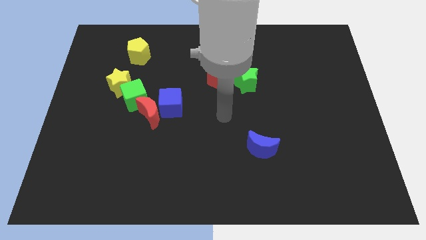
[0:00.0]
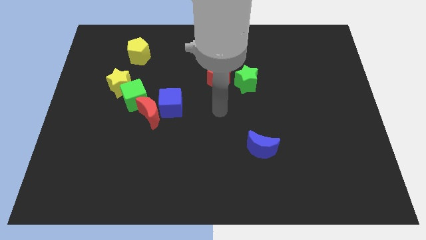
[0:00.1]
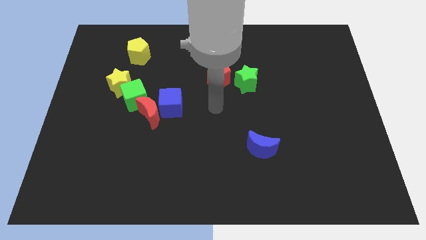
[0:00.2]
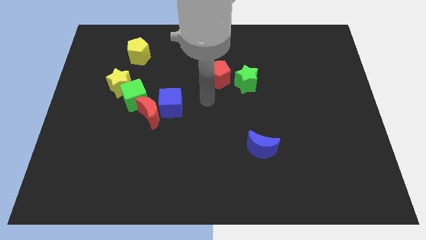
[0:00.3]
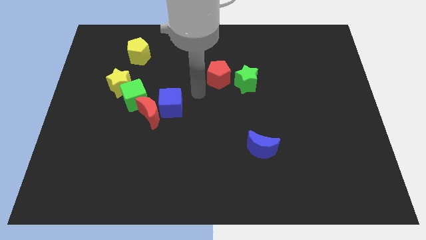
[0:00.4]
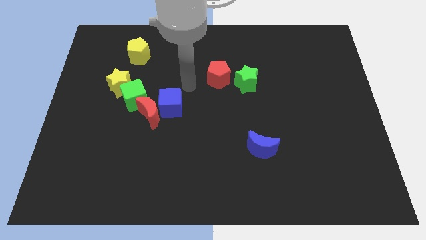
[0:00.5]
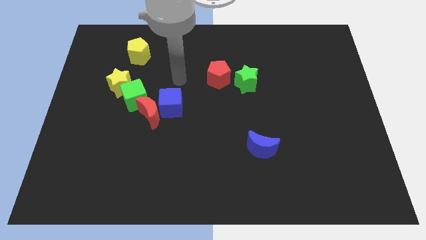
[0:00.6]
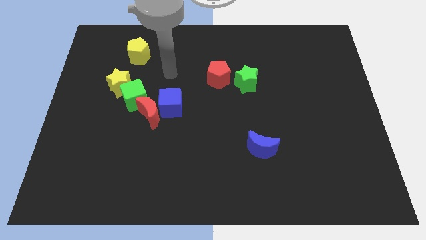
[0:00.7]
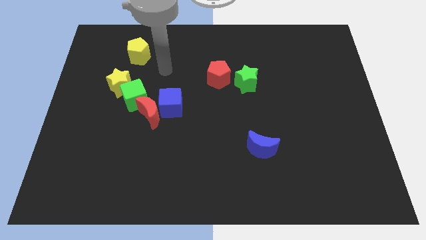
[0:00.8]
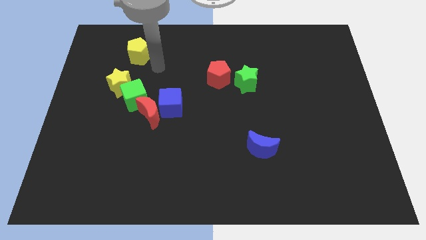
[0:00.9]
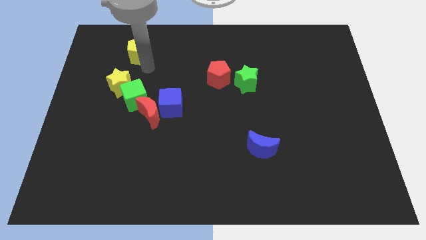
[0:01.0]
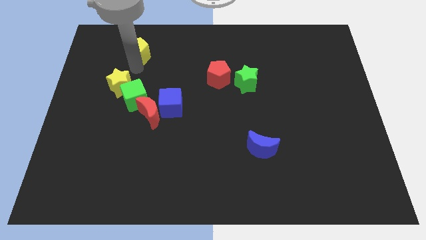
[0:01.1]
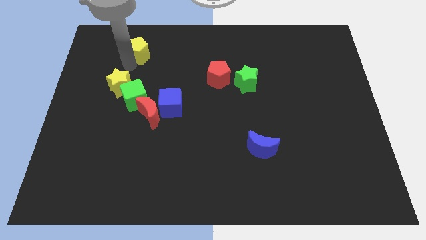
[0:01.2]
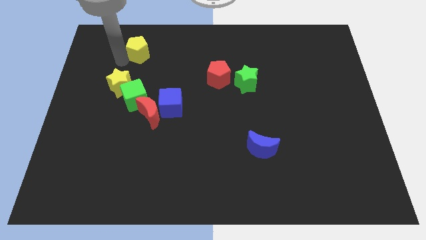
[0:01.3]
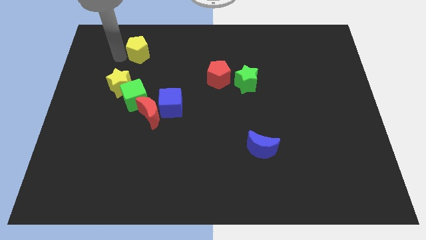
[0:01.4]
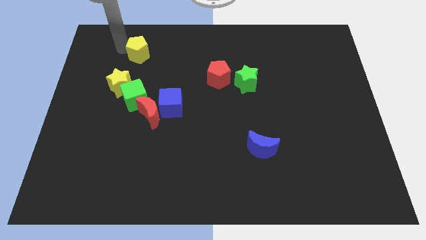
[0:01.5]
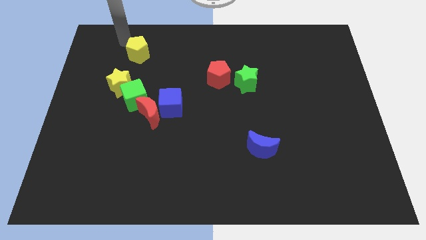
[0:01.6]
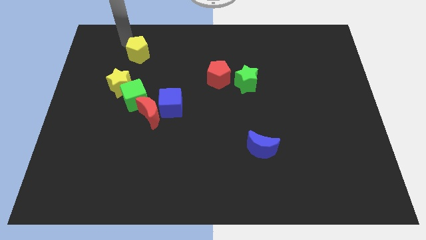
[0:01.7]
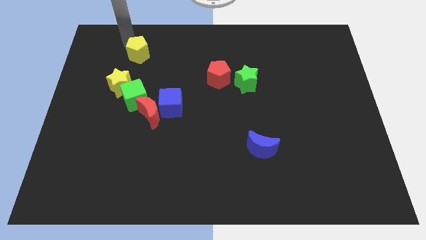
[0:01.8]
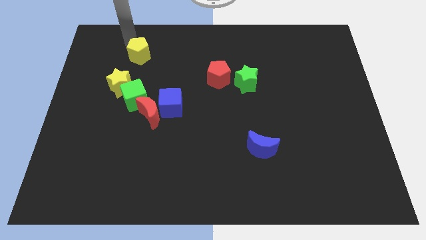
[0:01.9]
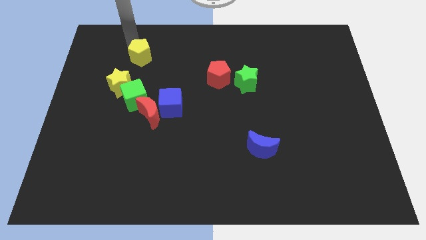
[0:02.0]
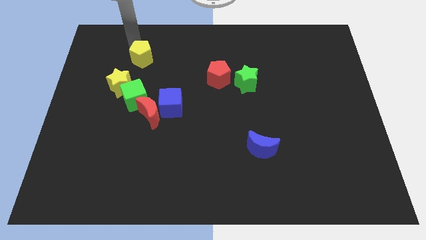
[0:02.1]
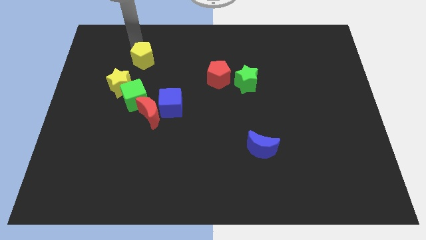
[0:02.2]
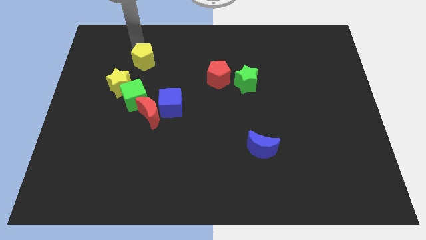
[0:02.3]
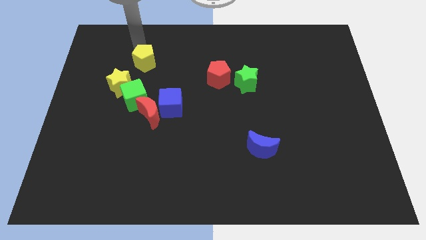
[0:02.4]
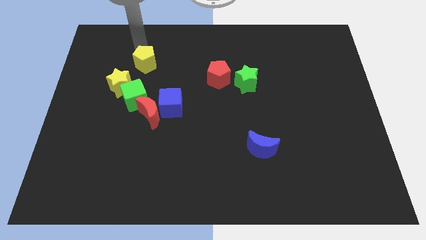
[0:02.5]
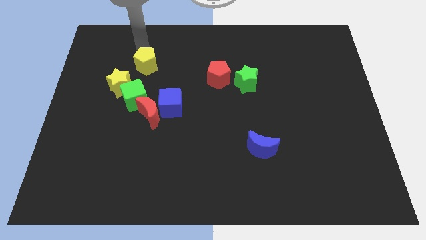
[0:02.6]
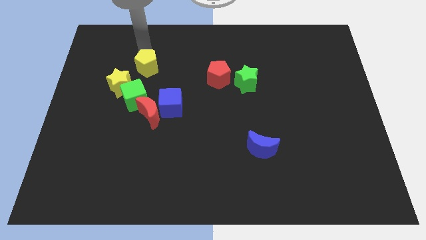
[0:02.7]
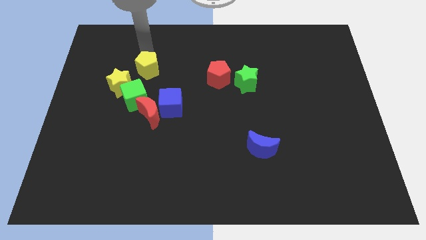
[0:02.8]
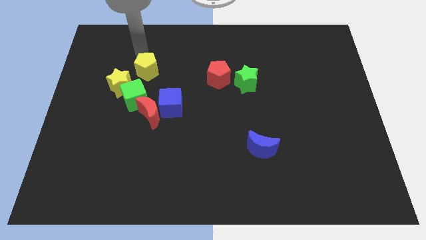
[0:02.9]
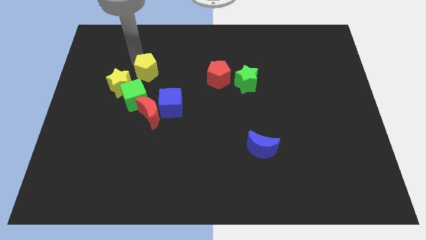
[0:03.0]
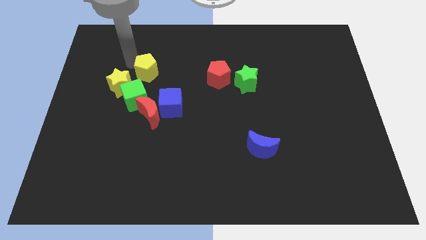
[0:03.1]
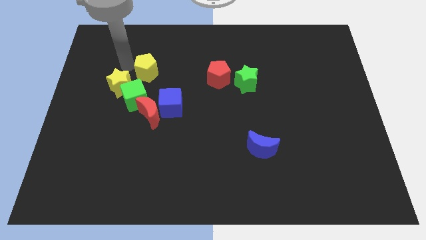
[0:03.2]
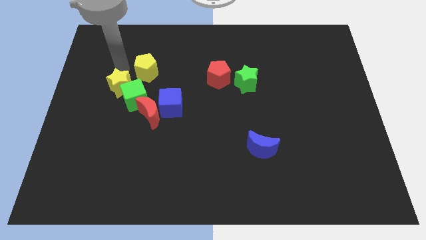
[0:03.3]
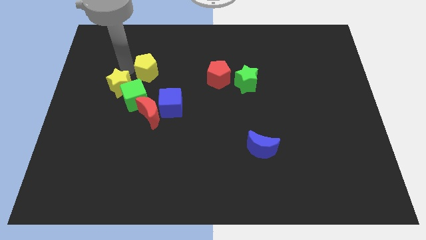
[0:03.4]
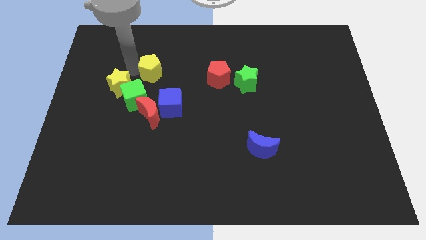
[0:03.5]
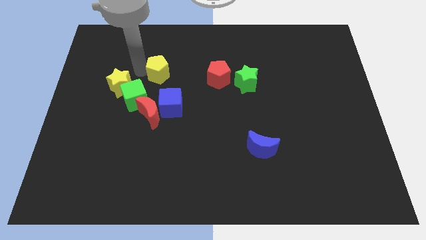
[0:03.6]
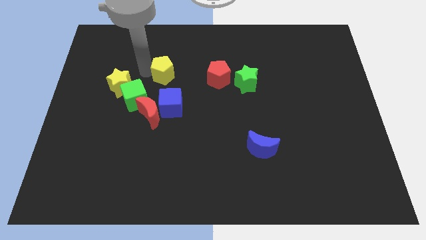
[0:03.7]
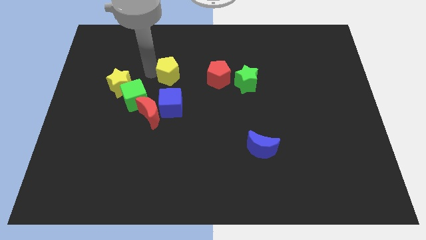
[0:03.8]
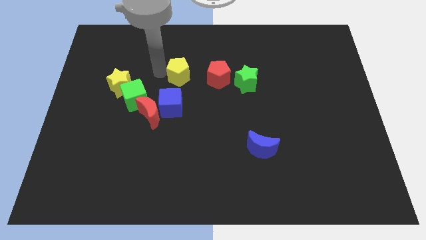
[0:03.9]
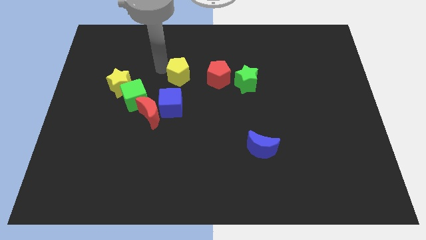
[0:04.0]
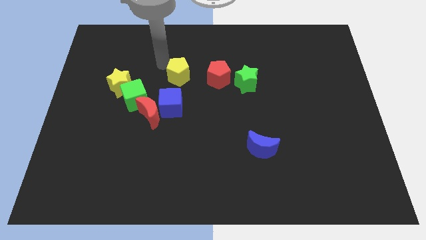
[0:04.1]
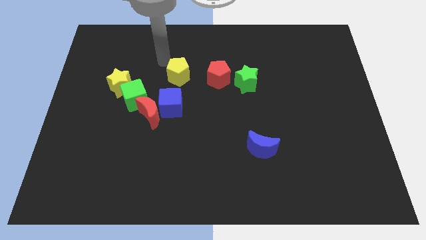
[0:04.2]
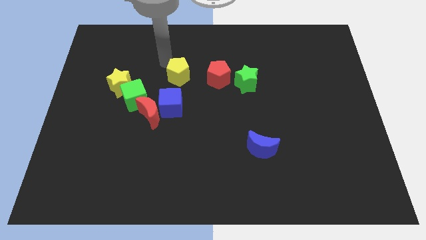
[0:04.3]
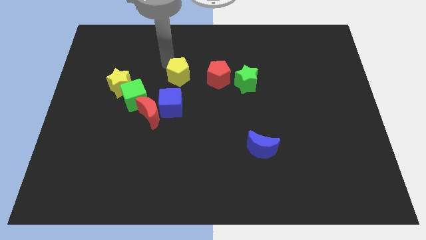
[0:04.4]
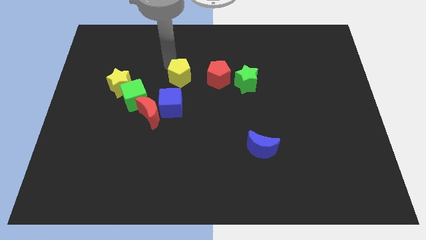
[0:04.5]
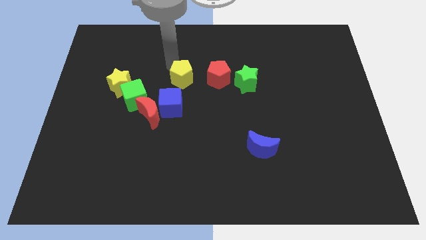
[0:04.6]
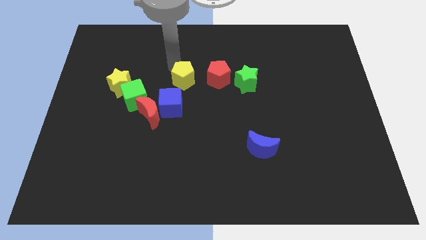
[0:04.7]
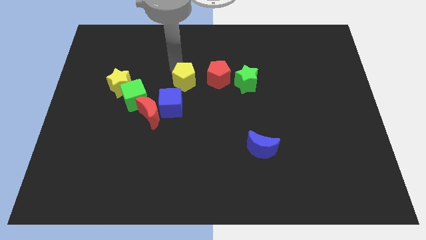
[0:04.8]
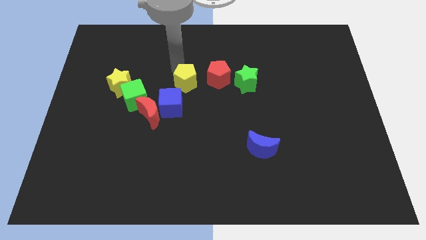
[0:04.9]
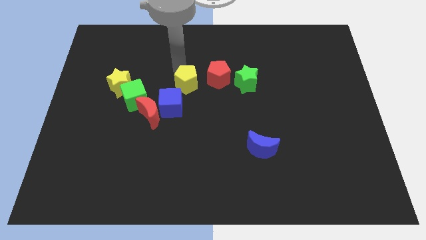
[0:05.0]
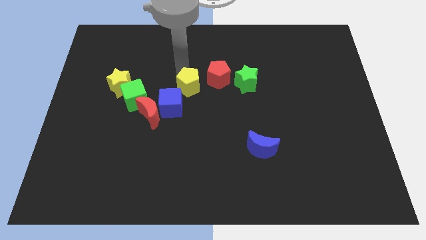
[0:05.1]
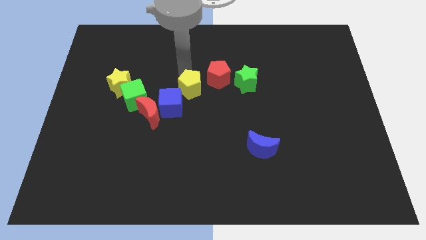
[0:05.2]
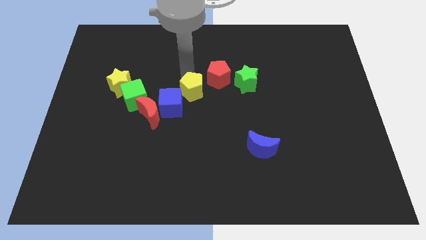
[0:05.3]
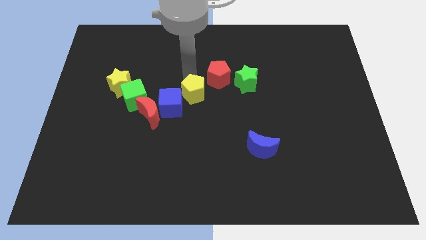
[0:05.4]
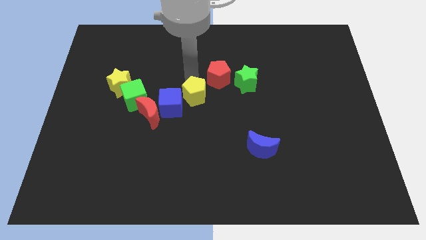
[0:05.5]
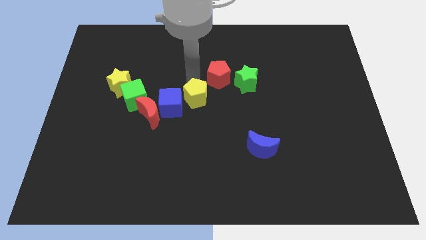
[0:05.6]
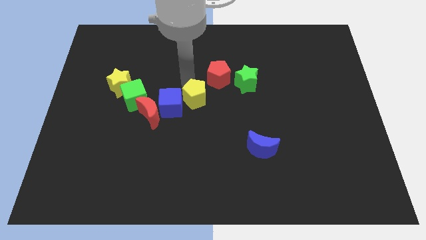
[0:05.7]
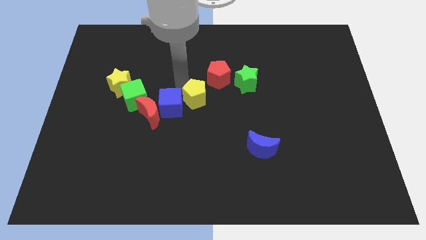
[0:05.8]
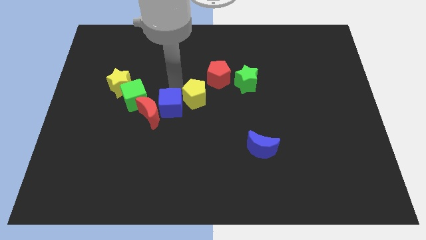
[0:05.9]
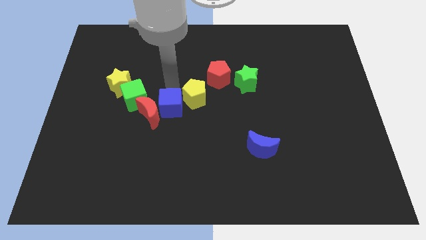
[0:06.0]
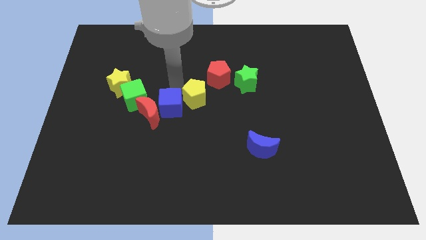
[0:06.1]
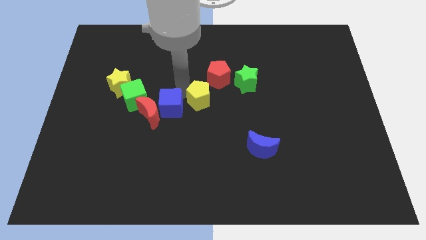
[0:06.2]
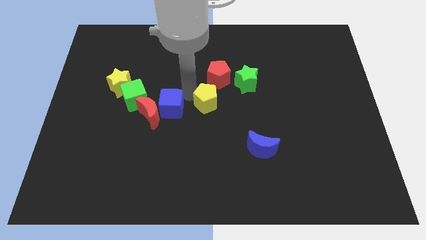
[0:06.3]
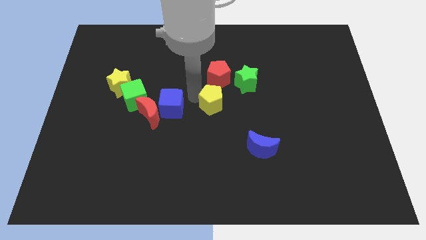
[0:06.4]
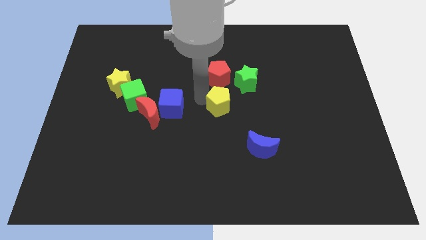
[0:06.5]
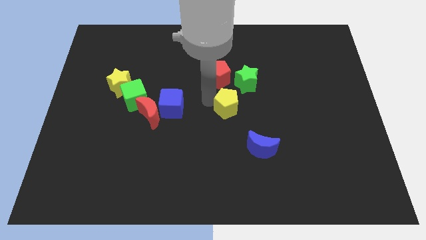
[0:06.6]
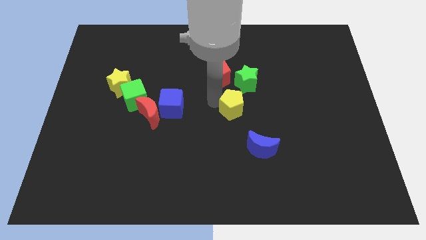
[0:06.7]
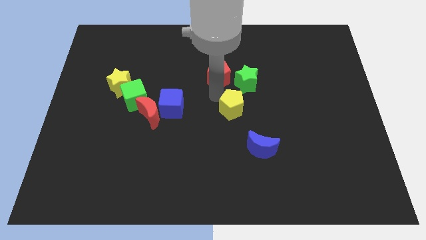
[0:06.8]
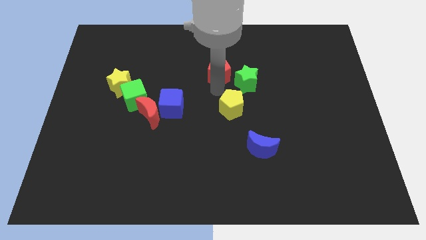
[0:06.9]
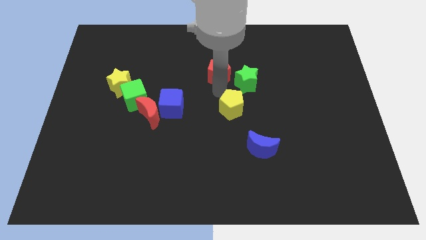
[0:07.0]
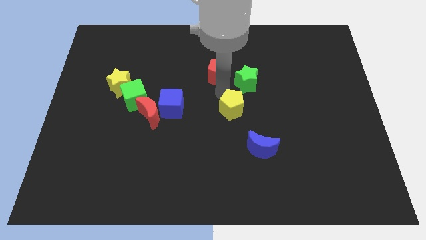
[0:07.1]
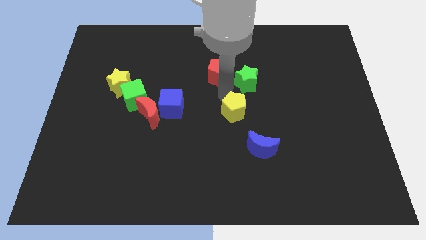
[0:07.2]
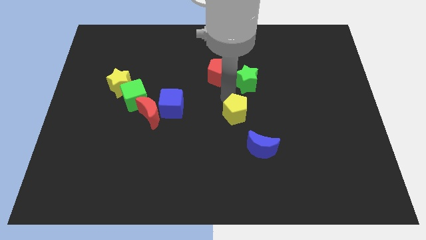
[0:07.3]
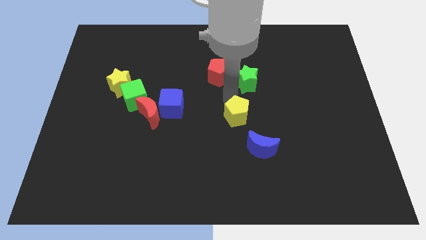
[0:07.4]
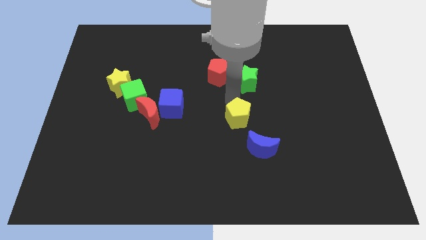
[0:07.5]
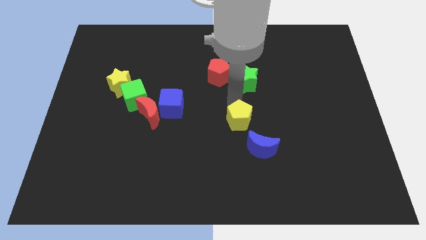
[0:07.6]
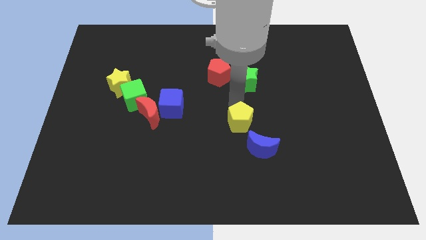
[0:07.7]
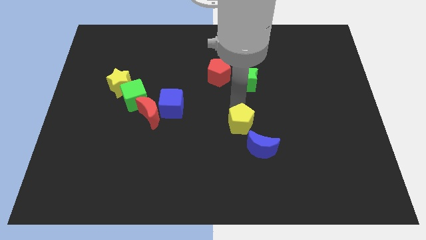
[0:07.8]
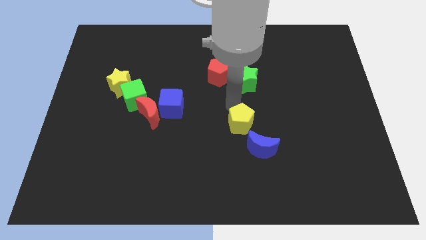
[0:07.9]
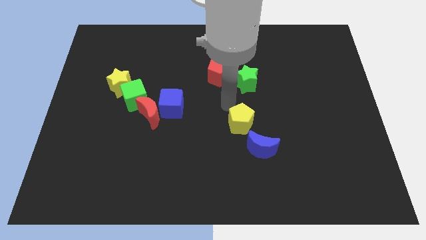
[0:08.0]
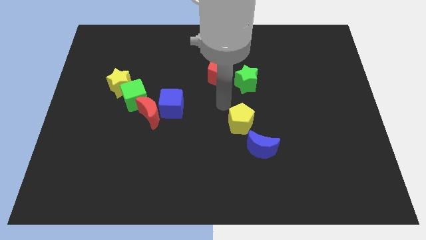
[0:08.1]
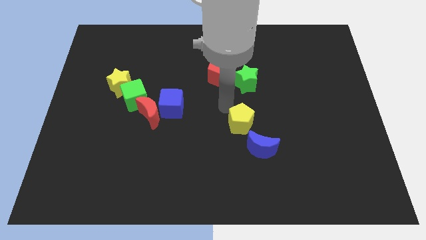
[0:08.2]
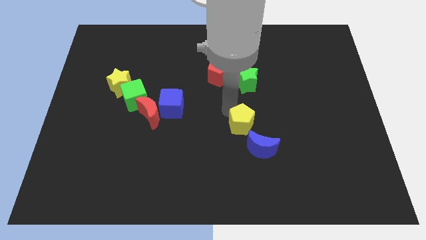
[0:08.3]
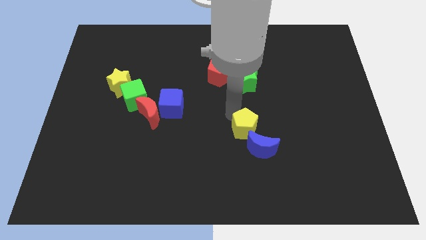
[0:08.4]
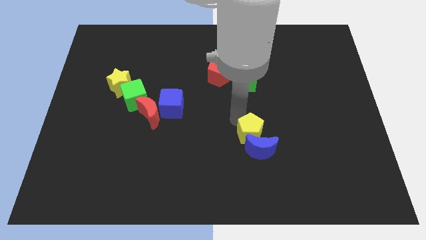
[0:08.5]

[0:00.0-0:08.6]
move the yellow pentagon next to the blue moon
